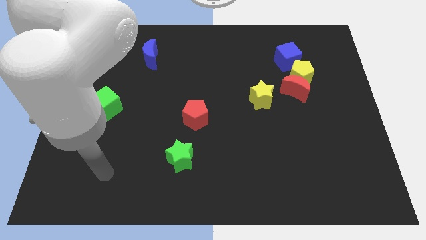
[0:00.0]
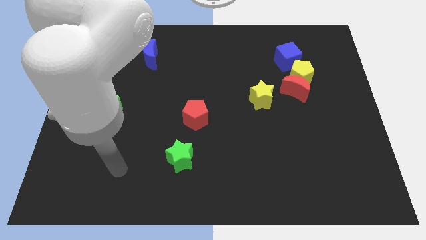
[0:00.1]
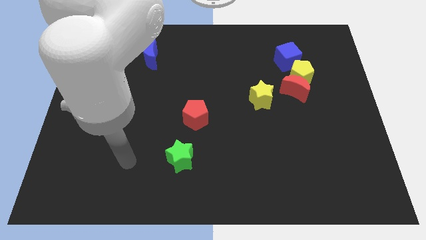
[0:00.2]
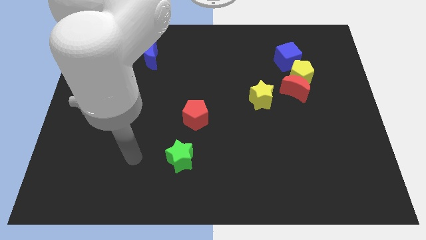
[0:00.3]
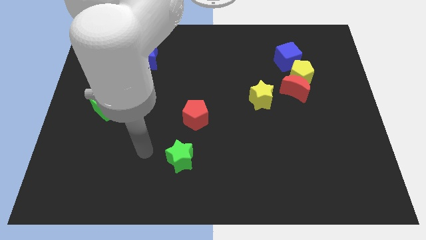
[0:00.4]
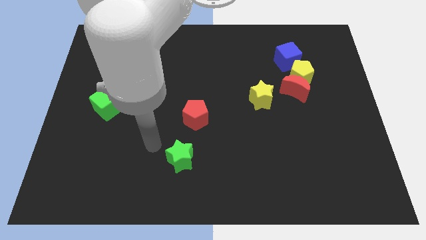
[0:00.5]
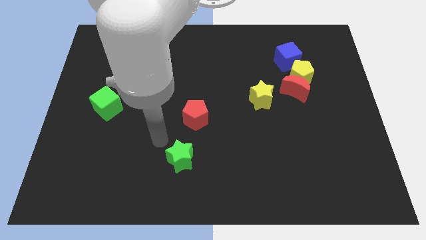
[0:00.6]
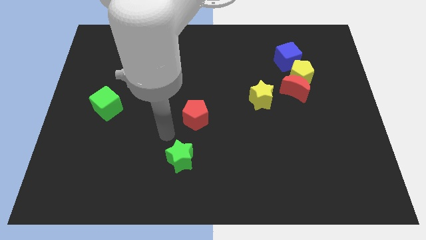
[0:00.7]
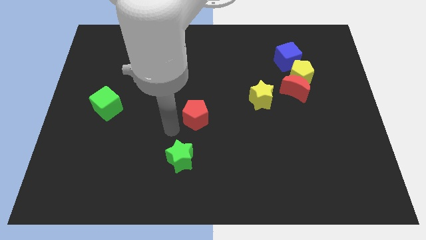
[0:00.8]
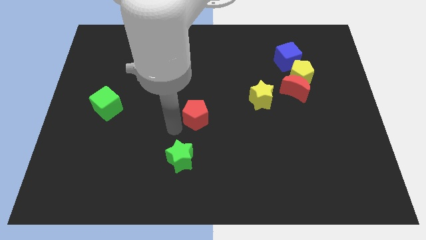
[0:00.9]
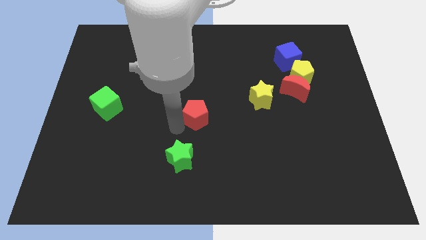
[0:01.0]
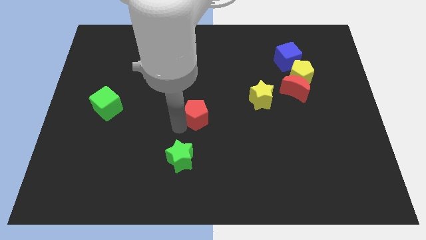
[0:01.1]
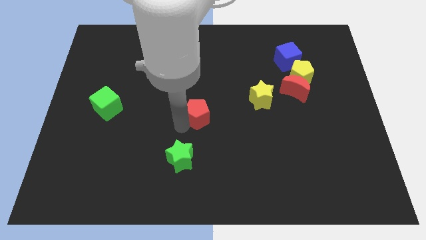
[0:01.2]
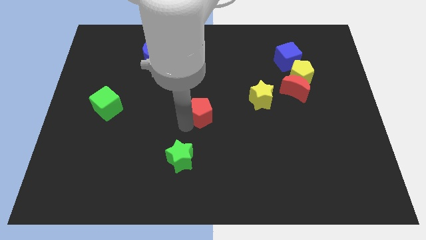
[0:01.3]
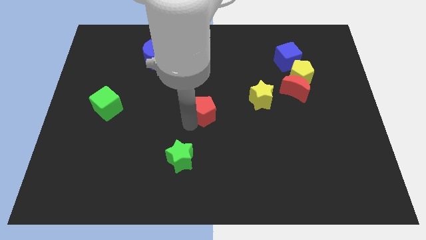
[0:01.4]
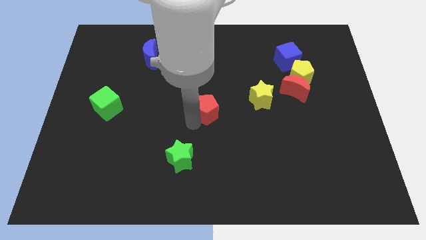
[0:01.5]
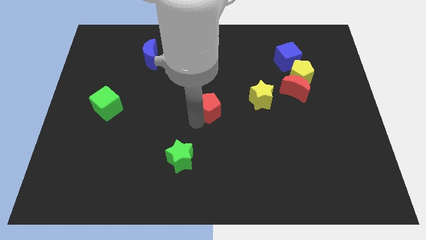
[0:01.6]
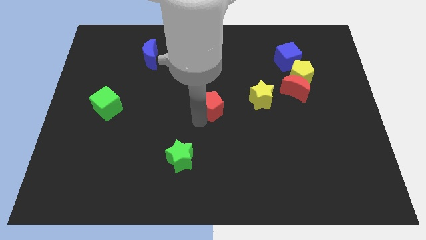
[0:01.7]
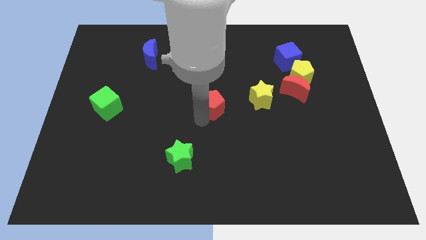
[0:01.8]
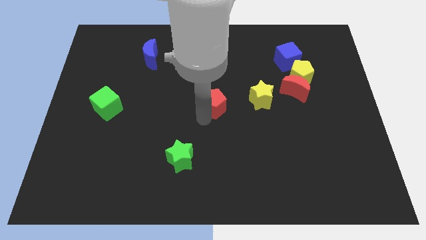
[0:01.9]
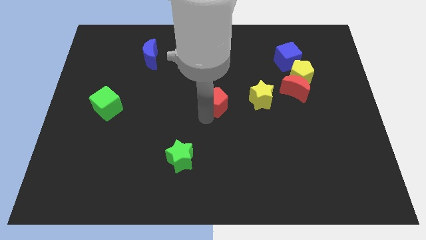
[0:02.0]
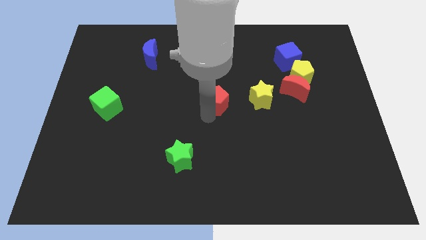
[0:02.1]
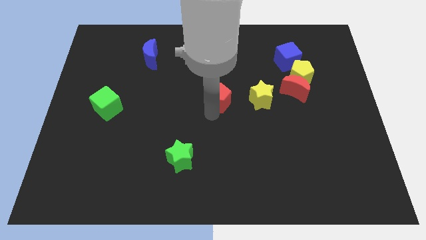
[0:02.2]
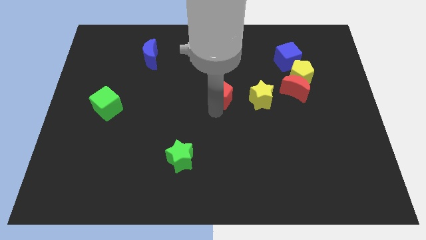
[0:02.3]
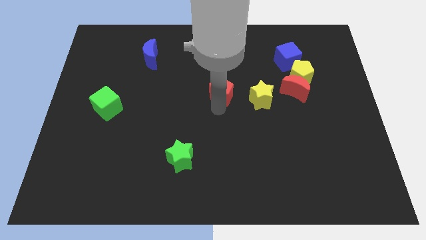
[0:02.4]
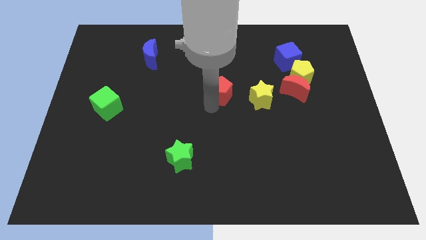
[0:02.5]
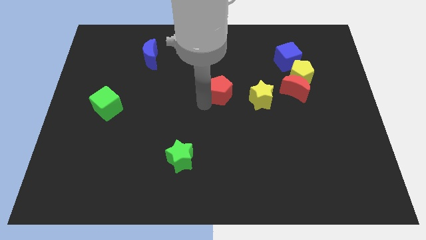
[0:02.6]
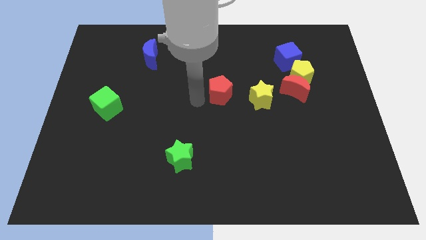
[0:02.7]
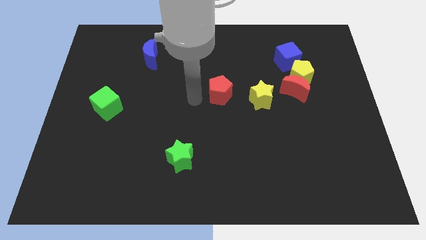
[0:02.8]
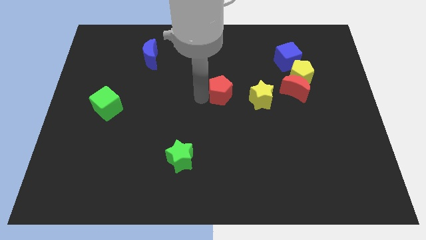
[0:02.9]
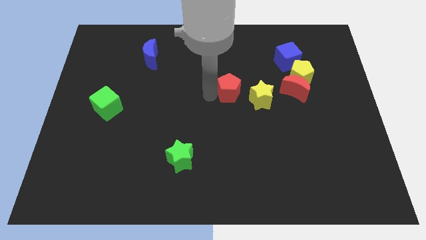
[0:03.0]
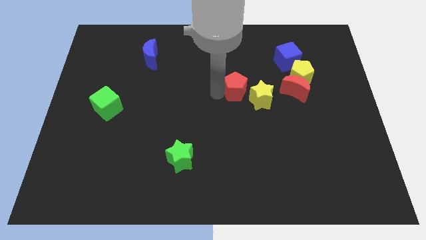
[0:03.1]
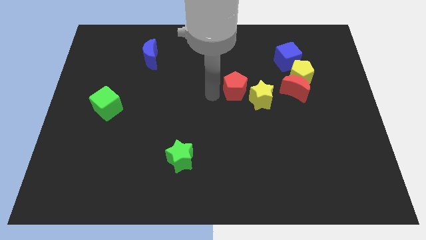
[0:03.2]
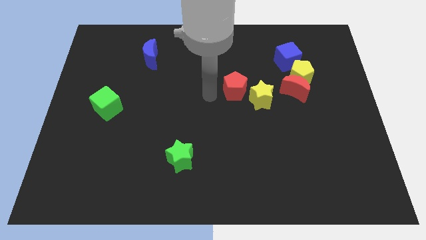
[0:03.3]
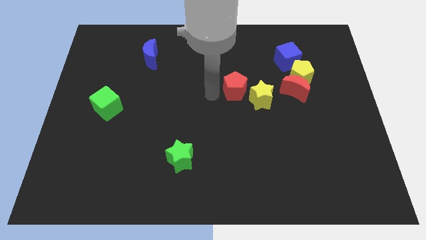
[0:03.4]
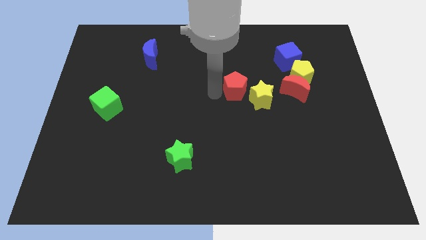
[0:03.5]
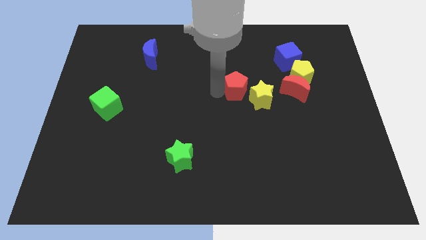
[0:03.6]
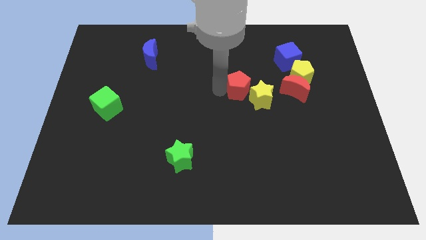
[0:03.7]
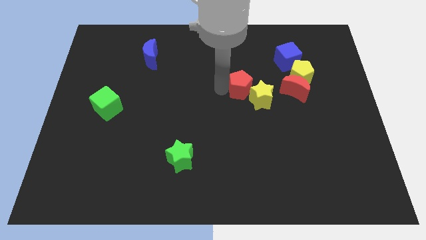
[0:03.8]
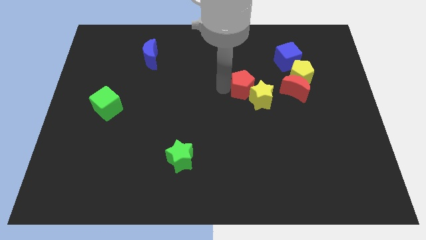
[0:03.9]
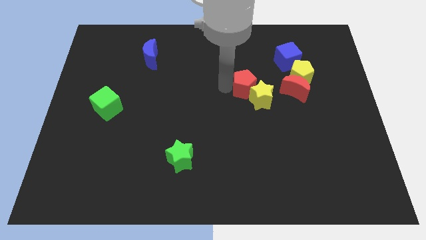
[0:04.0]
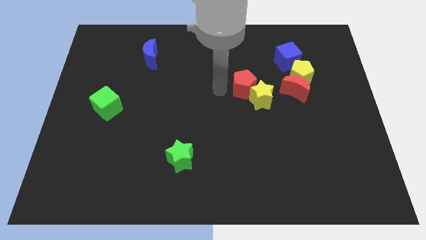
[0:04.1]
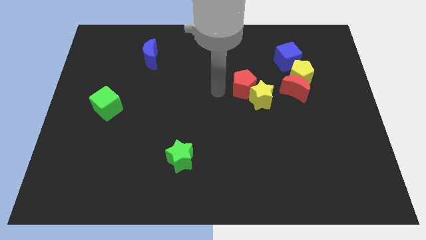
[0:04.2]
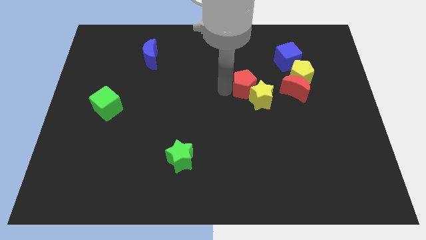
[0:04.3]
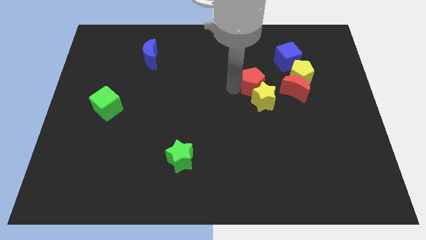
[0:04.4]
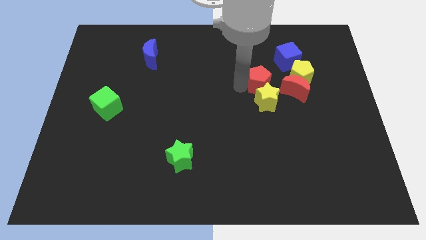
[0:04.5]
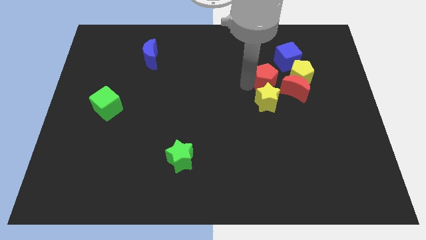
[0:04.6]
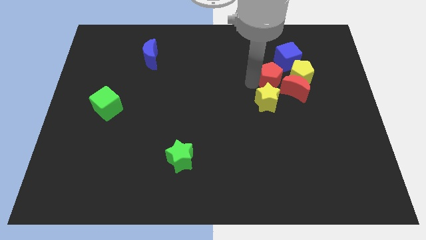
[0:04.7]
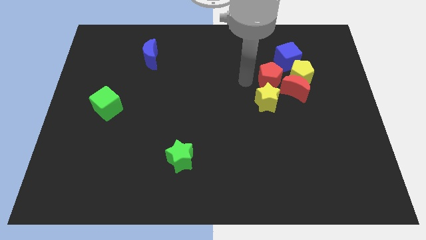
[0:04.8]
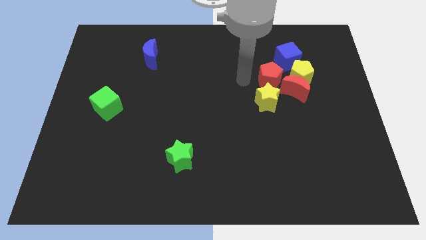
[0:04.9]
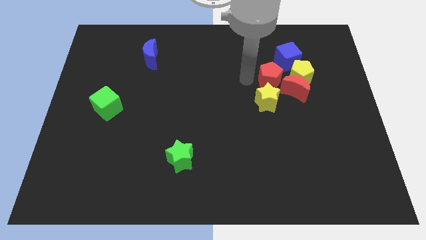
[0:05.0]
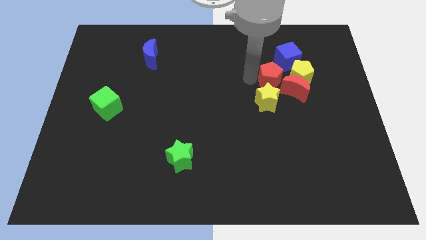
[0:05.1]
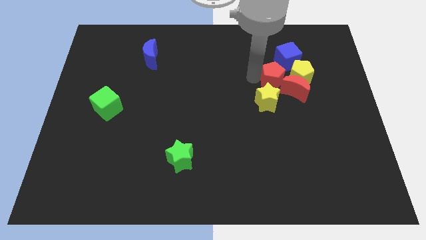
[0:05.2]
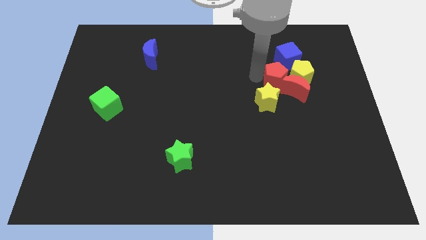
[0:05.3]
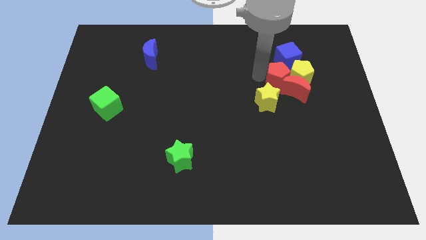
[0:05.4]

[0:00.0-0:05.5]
slide the red pentagon close to the yellow pentagon

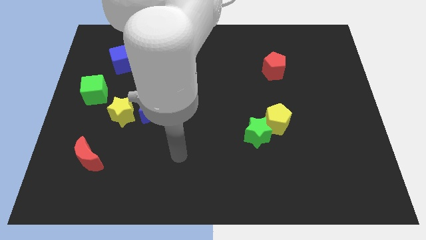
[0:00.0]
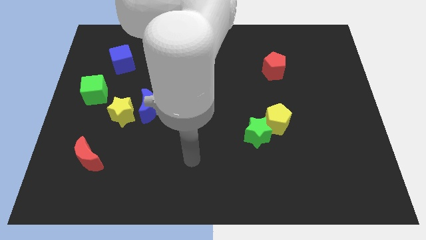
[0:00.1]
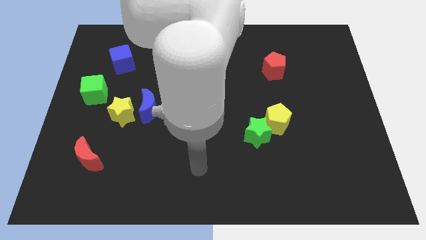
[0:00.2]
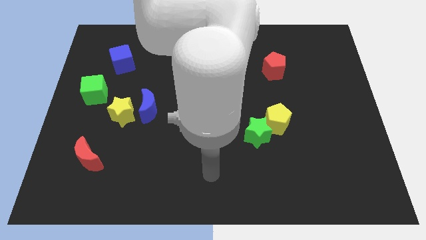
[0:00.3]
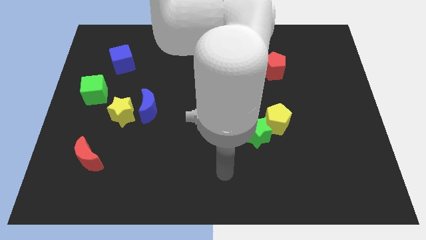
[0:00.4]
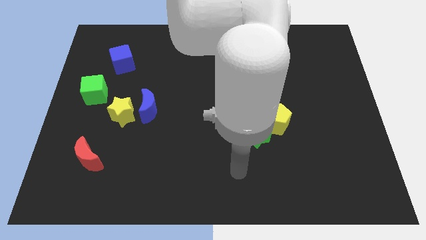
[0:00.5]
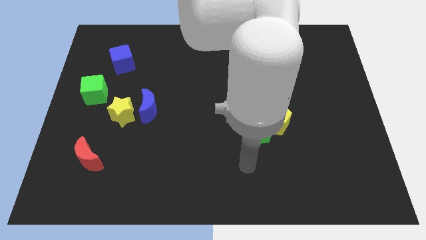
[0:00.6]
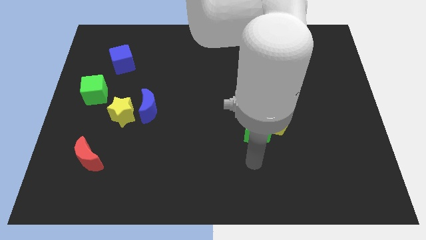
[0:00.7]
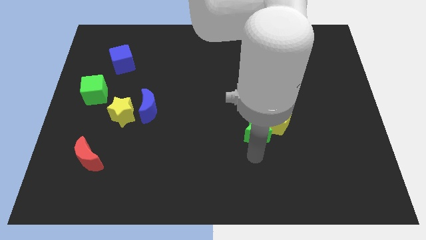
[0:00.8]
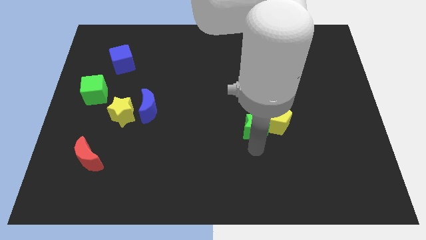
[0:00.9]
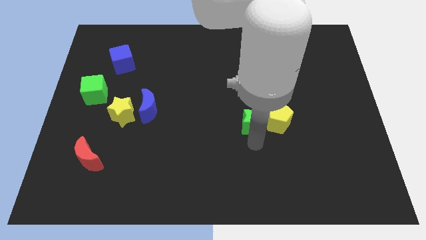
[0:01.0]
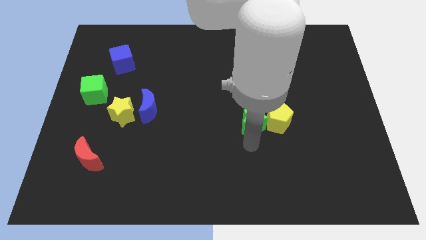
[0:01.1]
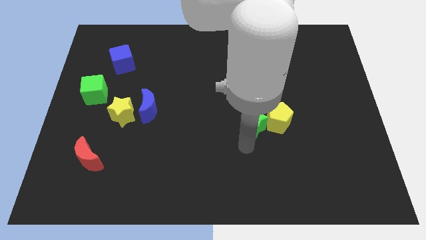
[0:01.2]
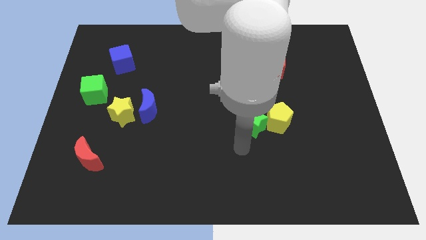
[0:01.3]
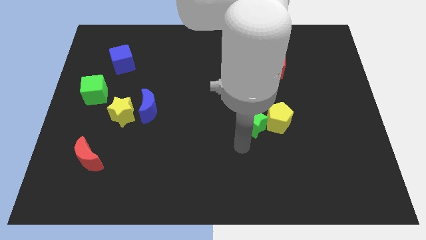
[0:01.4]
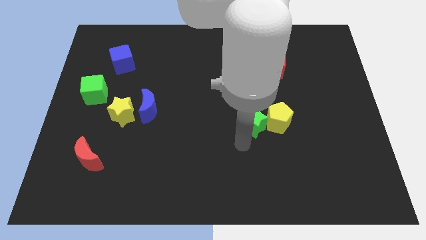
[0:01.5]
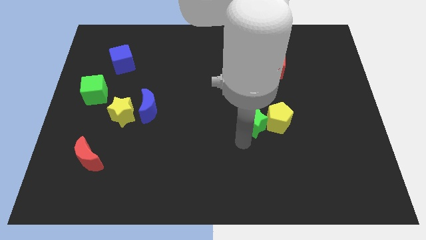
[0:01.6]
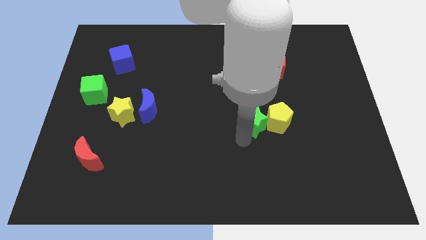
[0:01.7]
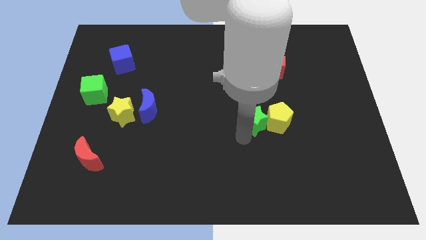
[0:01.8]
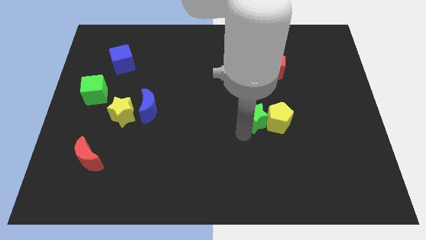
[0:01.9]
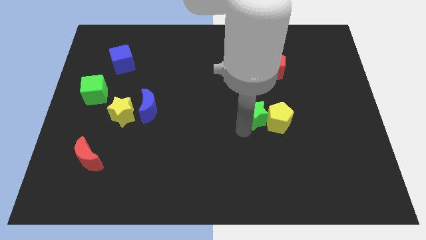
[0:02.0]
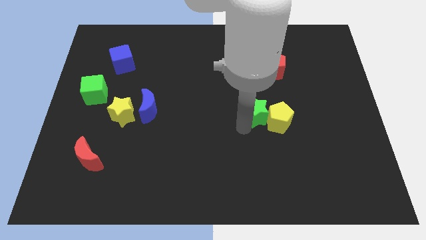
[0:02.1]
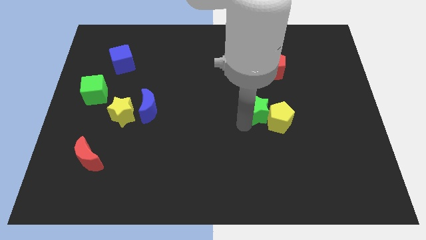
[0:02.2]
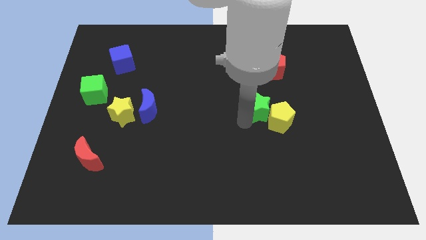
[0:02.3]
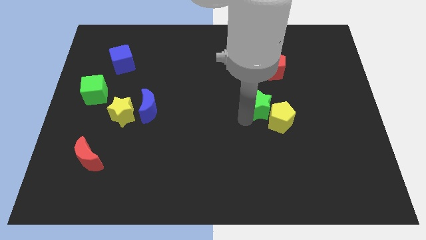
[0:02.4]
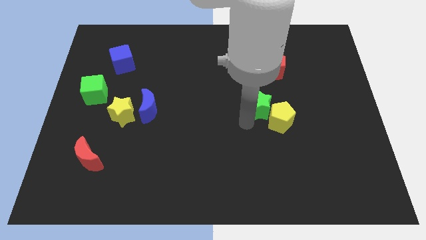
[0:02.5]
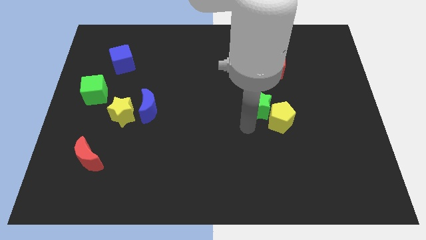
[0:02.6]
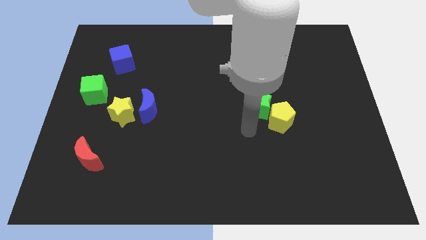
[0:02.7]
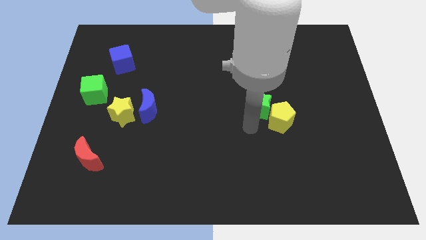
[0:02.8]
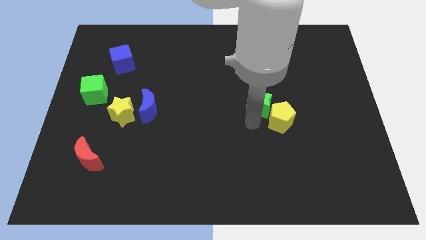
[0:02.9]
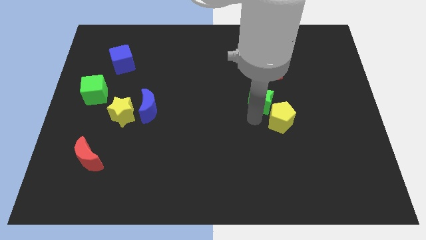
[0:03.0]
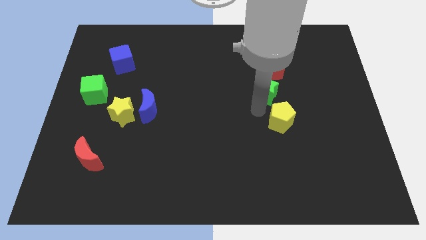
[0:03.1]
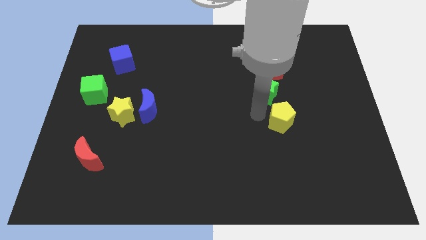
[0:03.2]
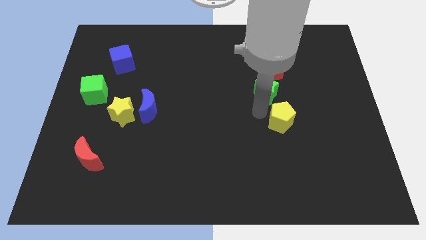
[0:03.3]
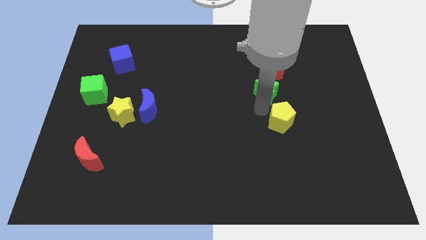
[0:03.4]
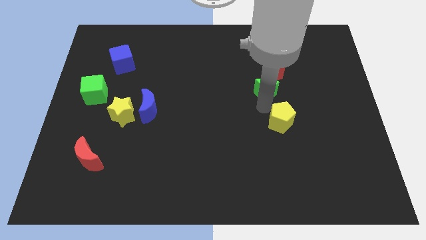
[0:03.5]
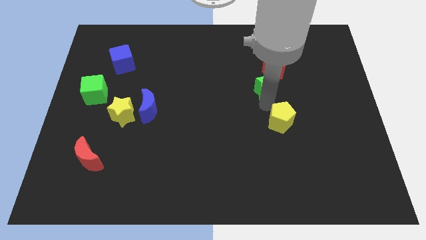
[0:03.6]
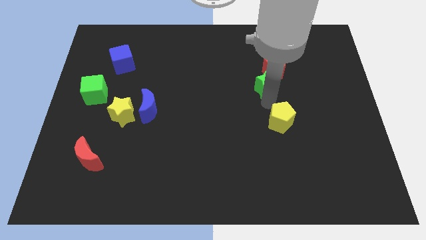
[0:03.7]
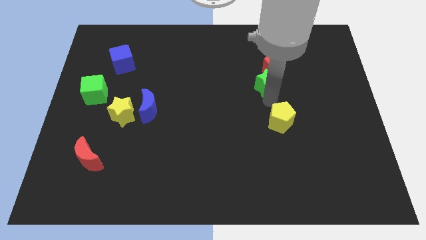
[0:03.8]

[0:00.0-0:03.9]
slide the green star next to the red pentagon
